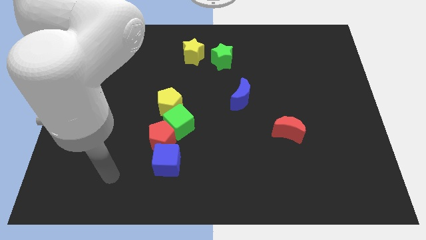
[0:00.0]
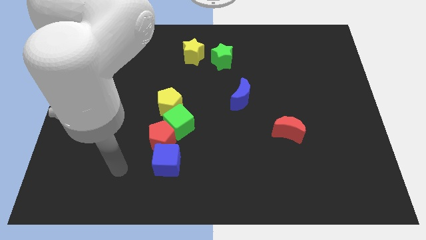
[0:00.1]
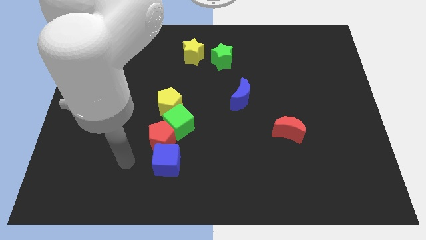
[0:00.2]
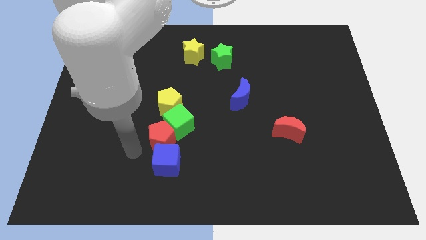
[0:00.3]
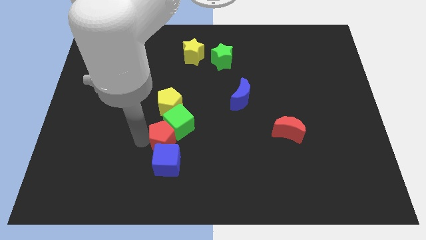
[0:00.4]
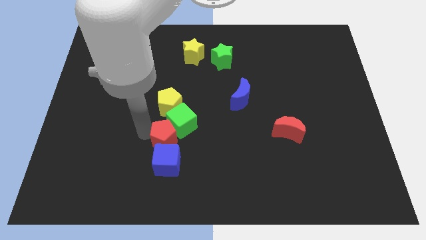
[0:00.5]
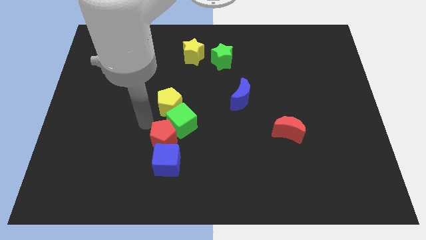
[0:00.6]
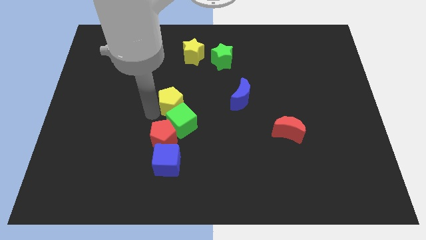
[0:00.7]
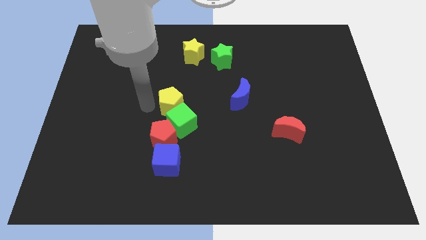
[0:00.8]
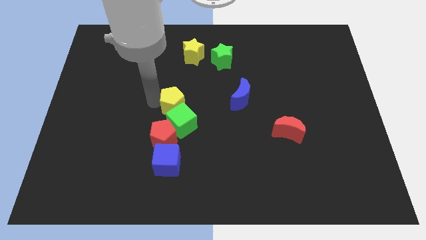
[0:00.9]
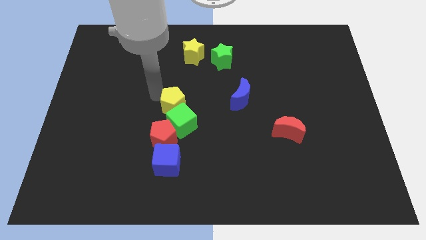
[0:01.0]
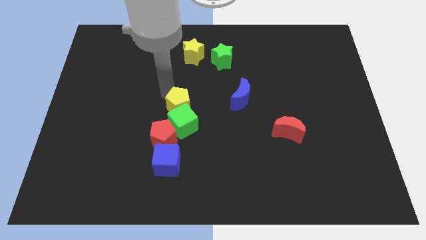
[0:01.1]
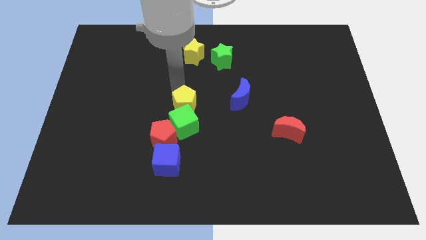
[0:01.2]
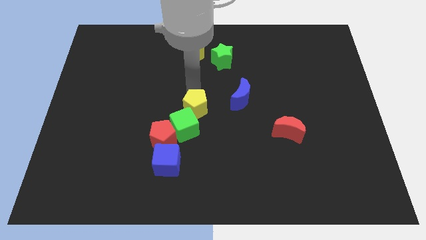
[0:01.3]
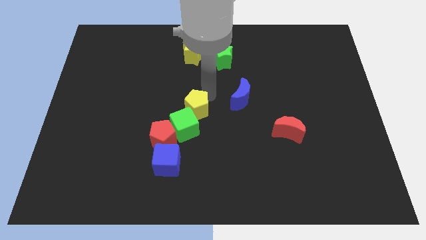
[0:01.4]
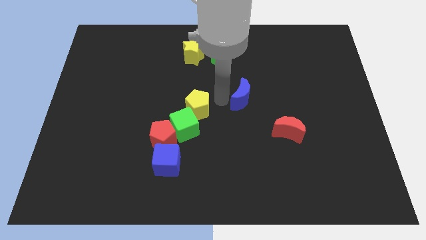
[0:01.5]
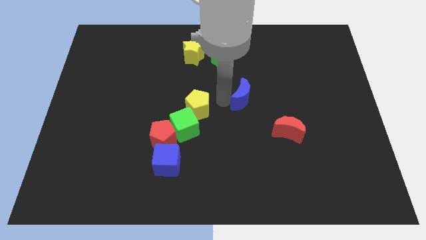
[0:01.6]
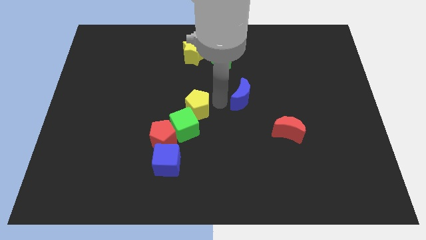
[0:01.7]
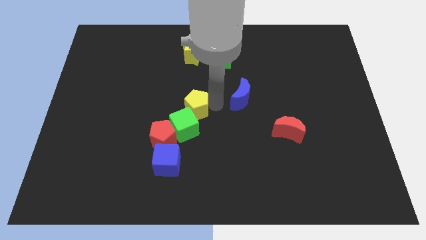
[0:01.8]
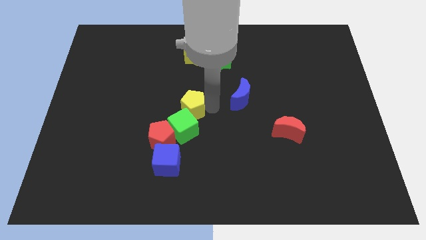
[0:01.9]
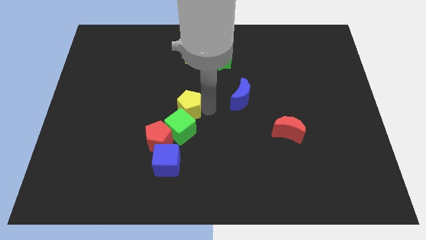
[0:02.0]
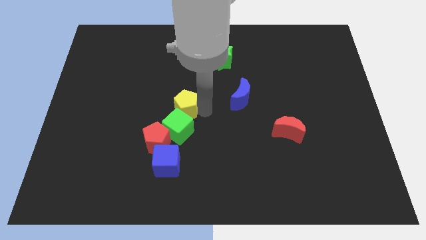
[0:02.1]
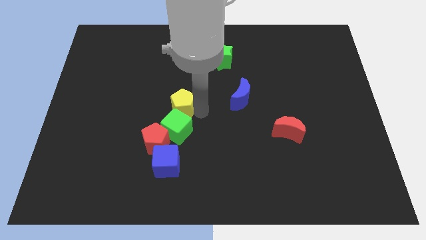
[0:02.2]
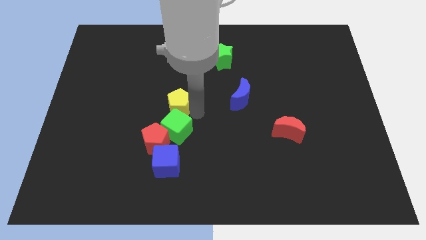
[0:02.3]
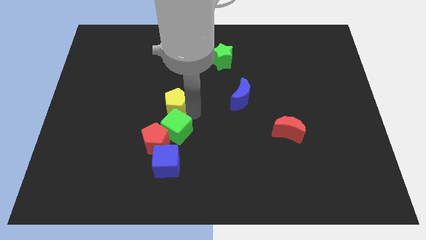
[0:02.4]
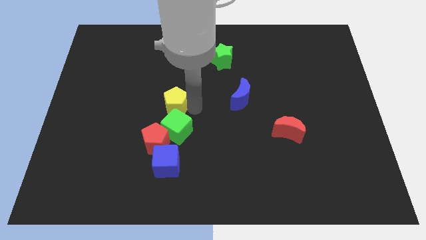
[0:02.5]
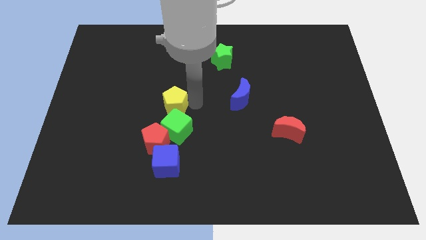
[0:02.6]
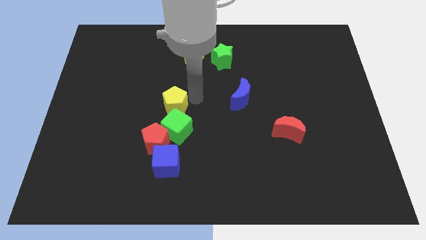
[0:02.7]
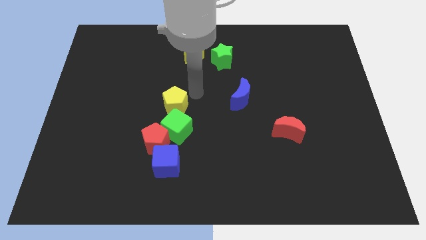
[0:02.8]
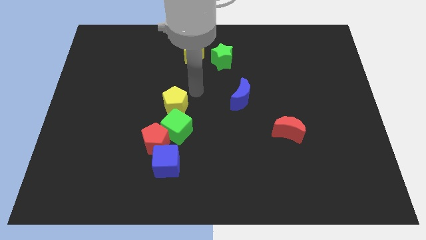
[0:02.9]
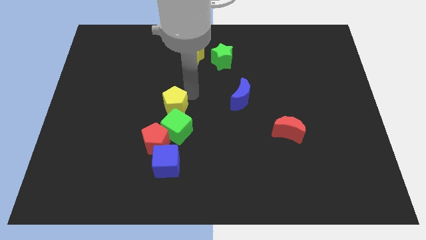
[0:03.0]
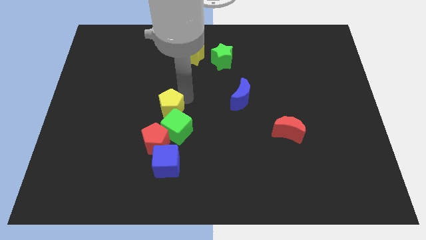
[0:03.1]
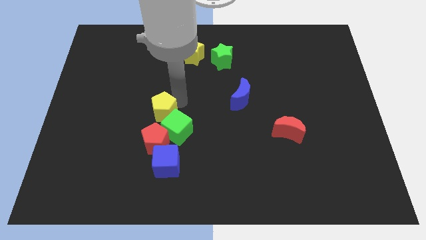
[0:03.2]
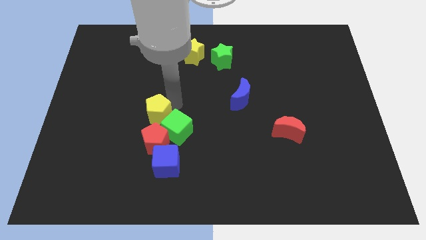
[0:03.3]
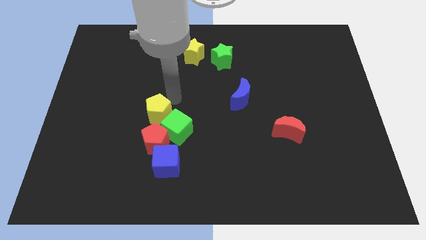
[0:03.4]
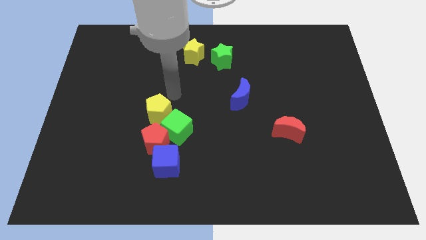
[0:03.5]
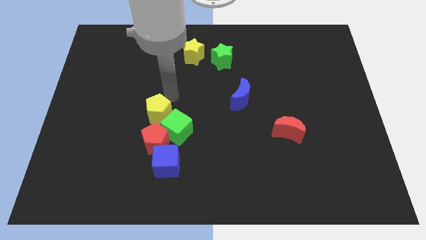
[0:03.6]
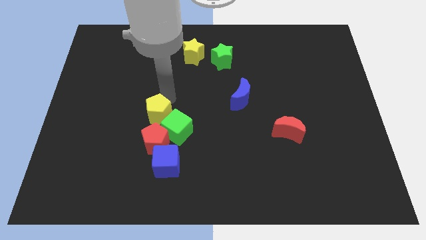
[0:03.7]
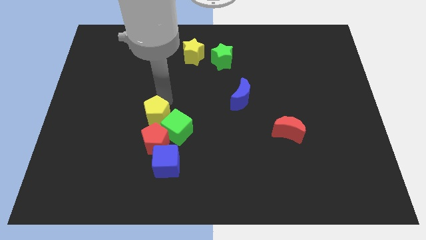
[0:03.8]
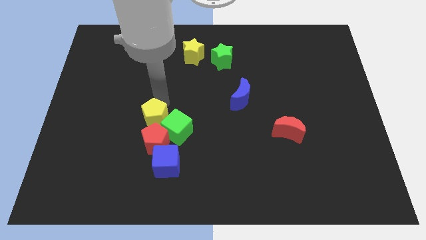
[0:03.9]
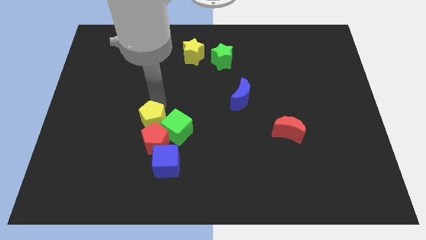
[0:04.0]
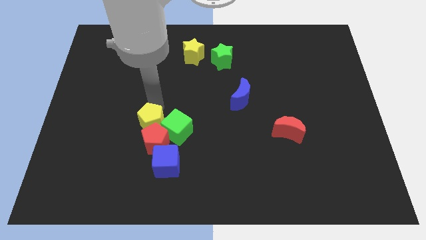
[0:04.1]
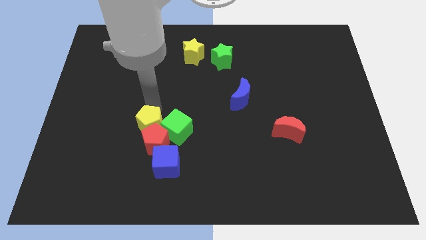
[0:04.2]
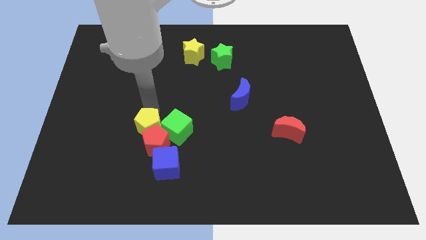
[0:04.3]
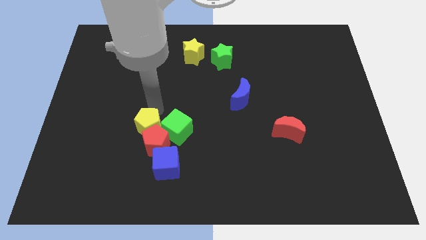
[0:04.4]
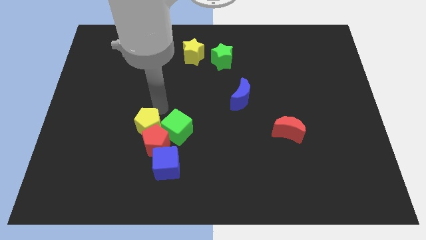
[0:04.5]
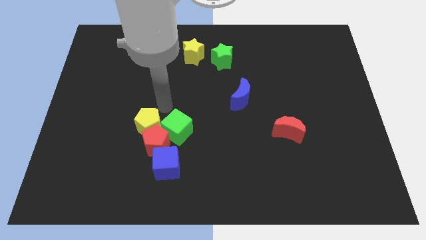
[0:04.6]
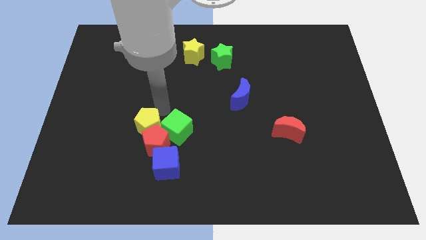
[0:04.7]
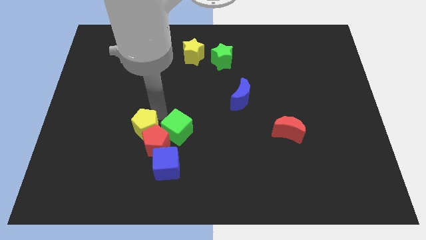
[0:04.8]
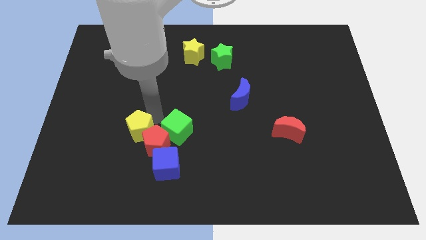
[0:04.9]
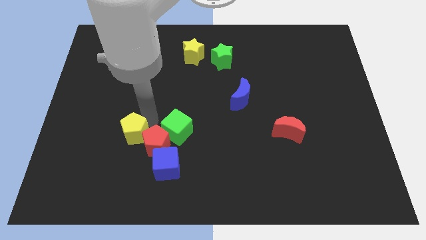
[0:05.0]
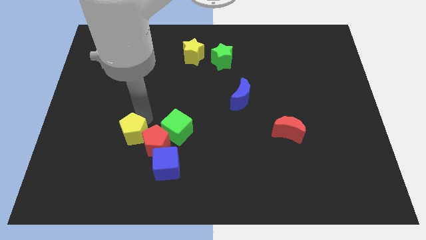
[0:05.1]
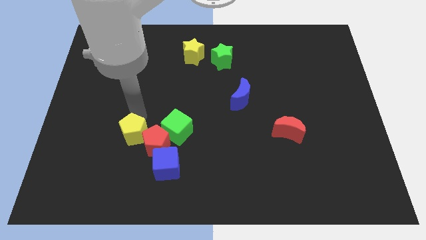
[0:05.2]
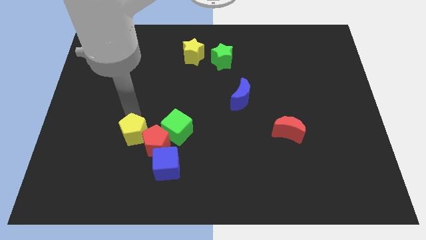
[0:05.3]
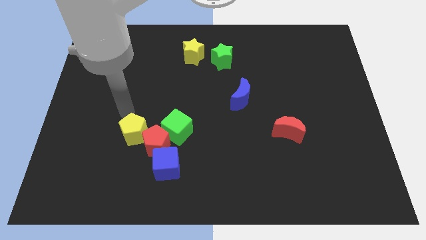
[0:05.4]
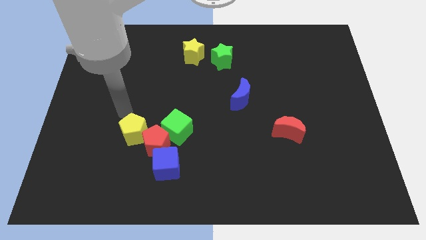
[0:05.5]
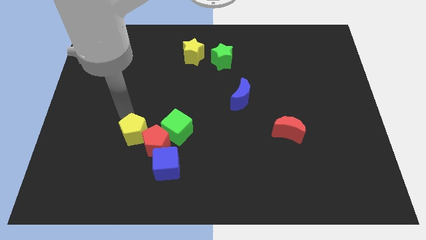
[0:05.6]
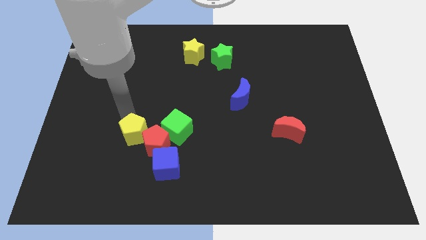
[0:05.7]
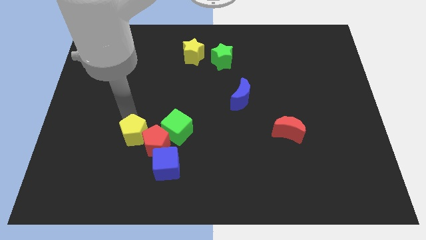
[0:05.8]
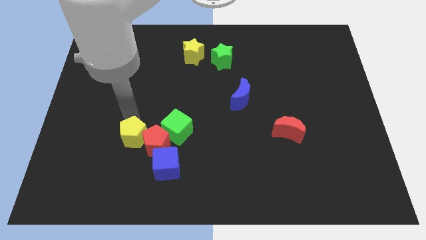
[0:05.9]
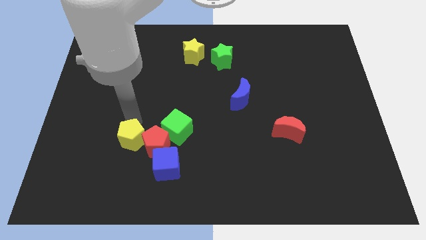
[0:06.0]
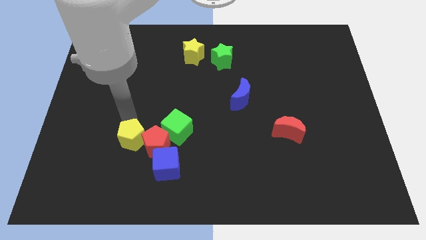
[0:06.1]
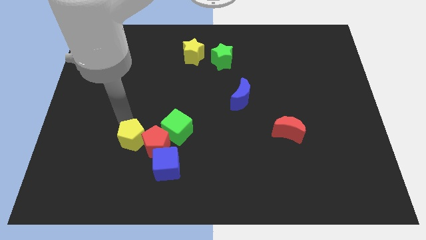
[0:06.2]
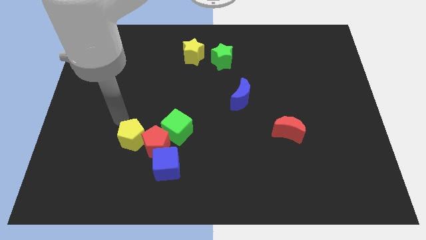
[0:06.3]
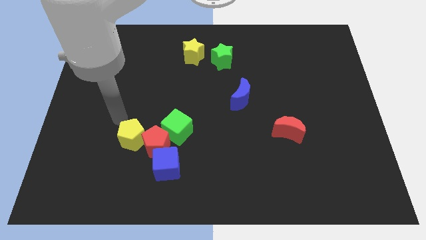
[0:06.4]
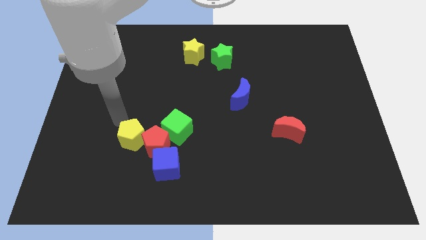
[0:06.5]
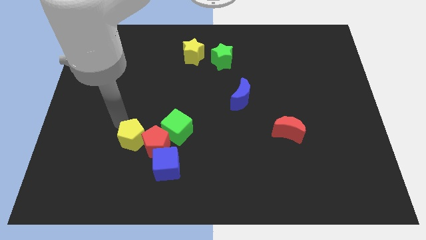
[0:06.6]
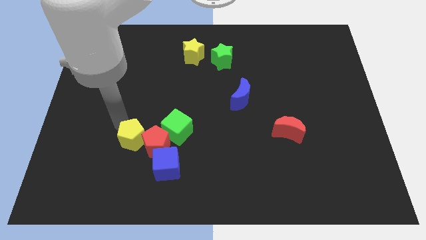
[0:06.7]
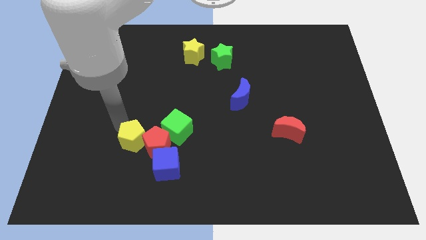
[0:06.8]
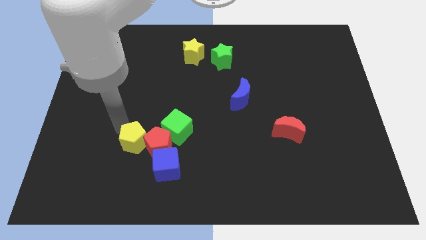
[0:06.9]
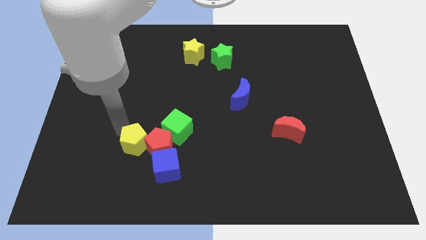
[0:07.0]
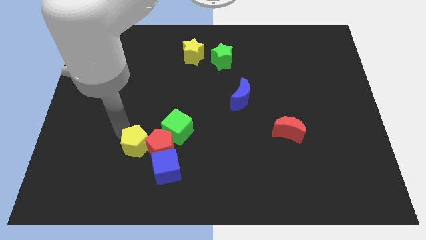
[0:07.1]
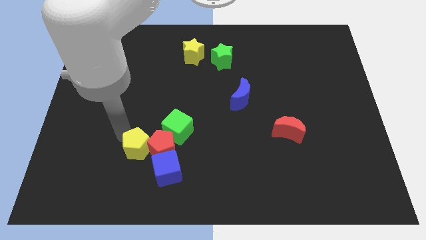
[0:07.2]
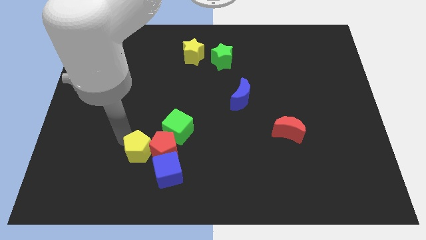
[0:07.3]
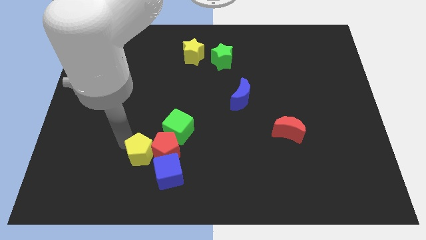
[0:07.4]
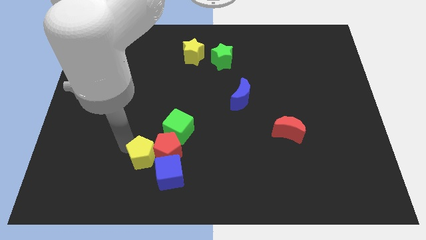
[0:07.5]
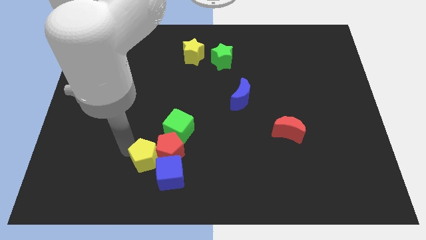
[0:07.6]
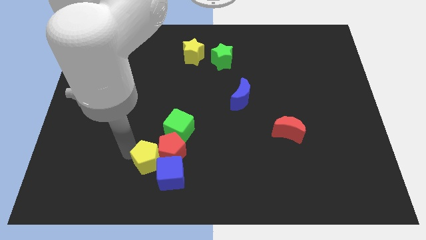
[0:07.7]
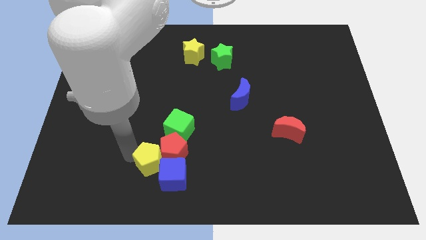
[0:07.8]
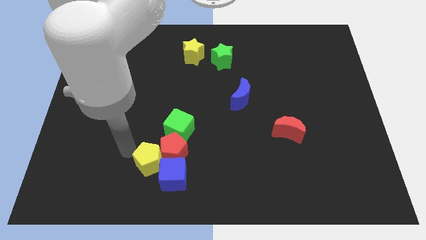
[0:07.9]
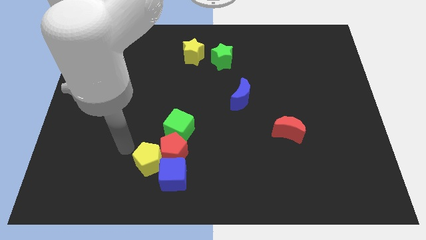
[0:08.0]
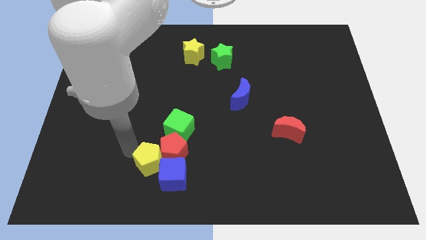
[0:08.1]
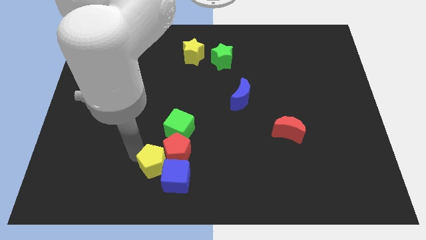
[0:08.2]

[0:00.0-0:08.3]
move the yellow pentagon next to the blue cube
